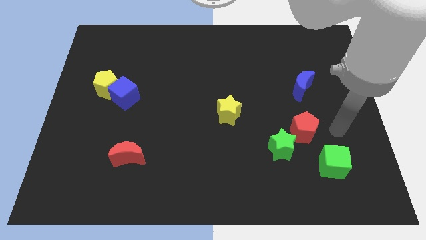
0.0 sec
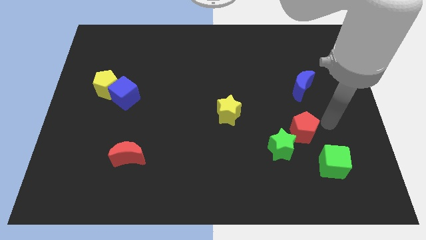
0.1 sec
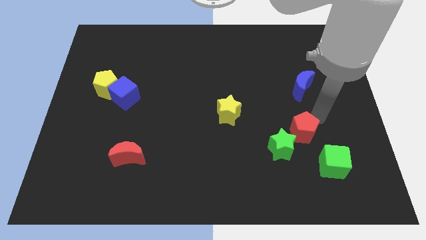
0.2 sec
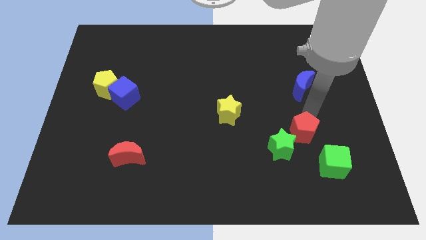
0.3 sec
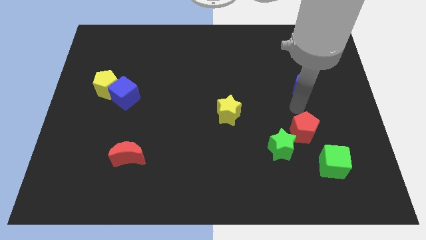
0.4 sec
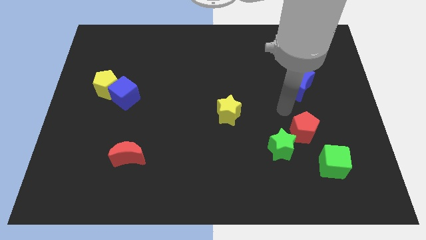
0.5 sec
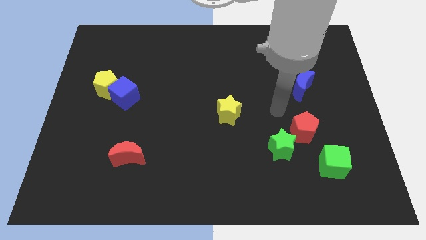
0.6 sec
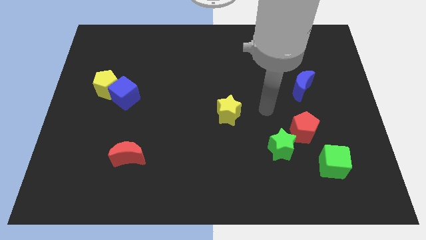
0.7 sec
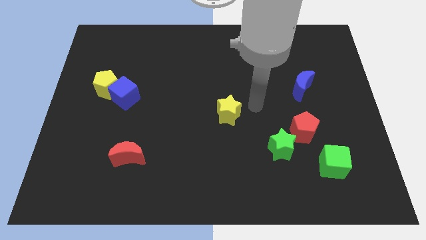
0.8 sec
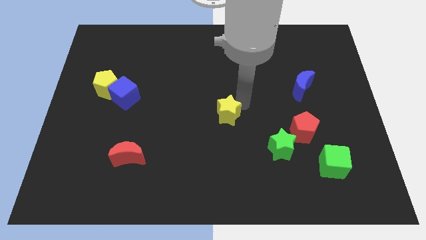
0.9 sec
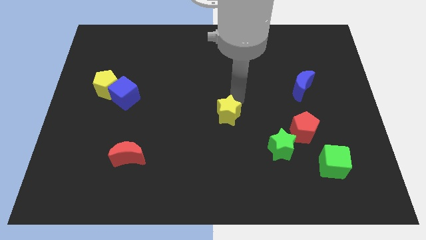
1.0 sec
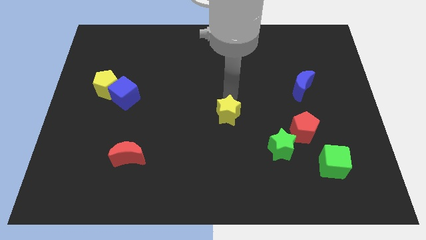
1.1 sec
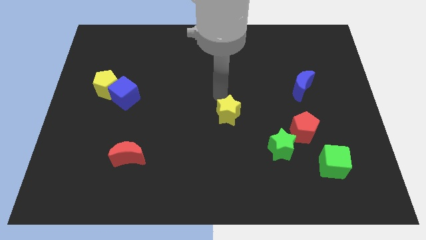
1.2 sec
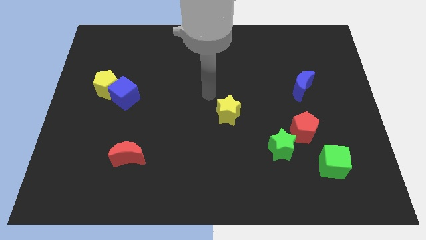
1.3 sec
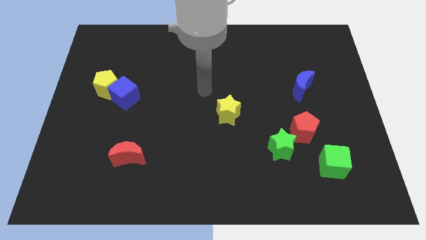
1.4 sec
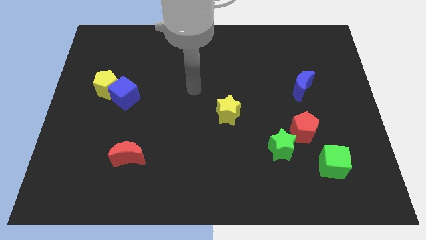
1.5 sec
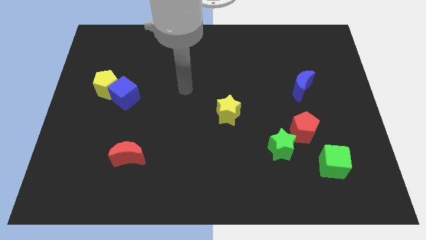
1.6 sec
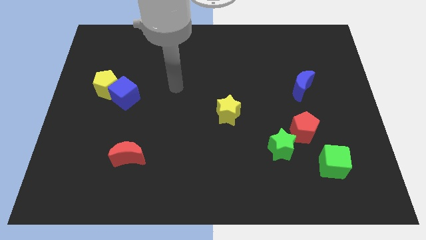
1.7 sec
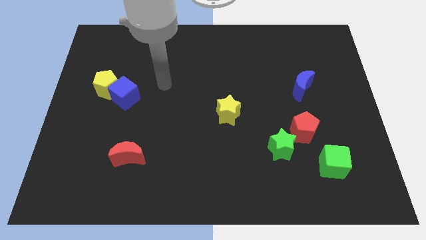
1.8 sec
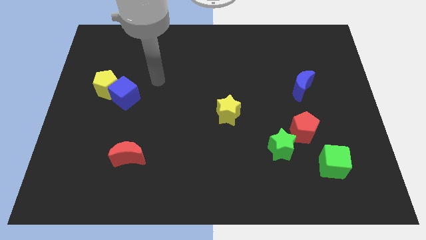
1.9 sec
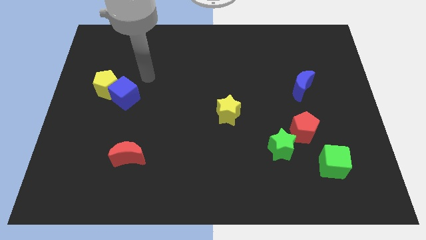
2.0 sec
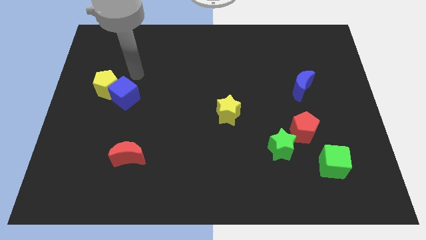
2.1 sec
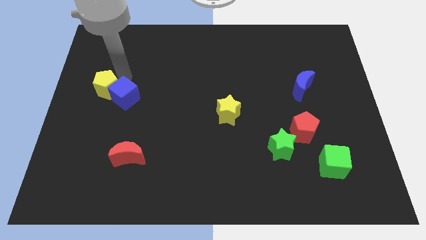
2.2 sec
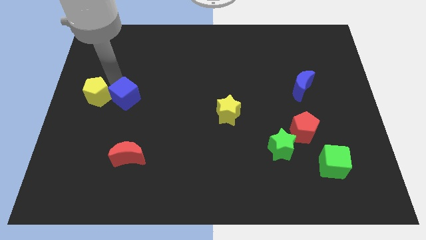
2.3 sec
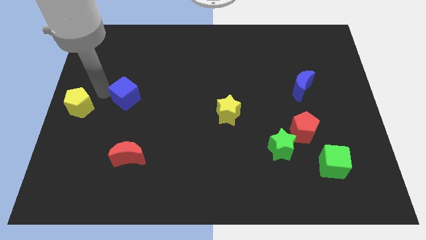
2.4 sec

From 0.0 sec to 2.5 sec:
separate the blue cube from the yellow pentagon

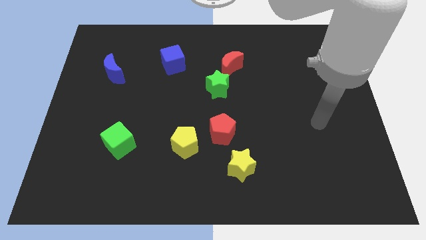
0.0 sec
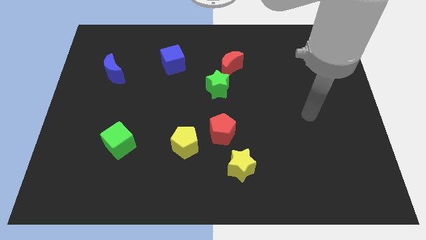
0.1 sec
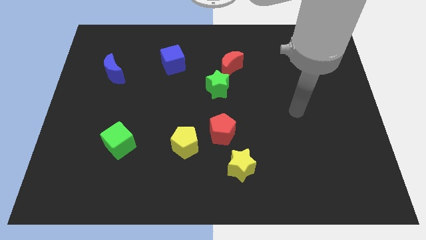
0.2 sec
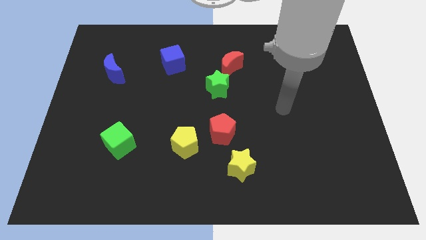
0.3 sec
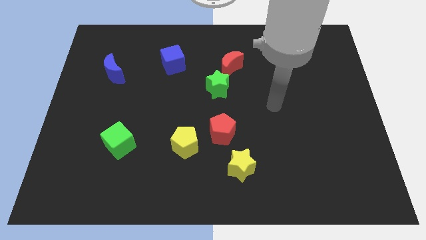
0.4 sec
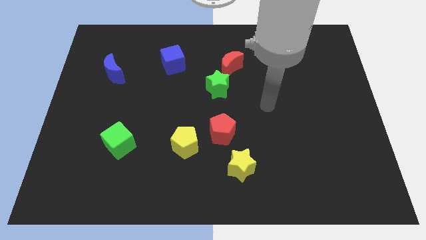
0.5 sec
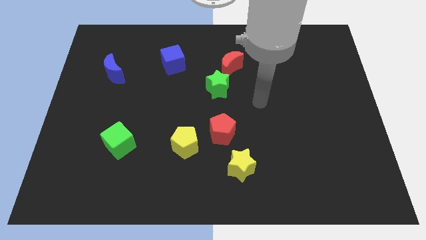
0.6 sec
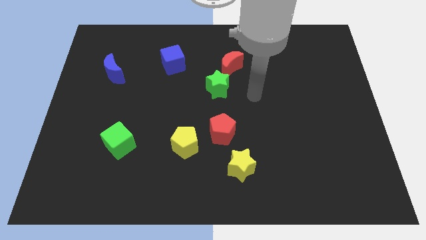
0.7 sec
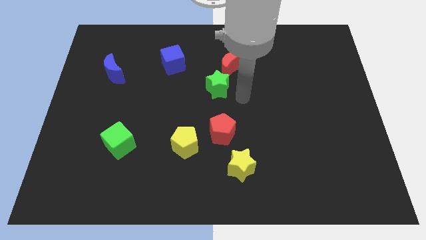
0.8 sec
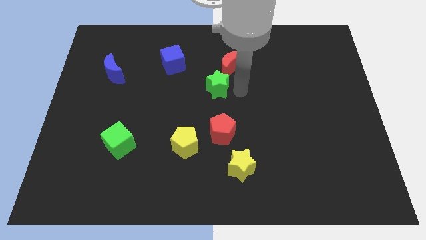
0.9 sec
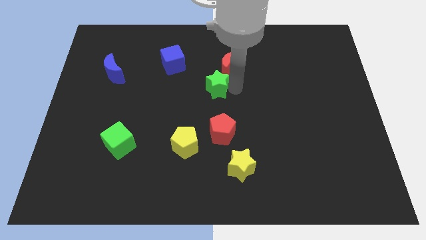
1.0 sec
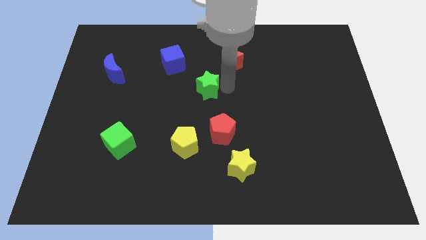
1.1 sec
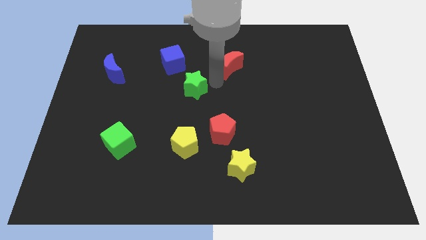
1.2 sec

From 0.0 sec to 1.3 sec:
pull the red moon apart from the green star

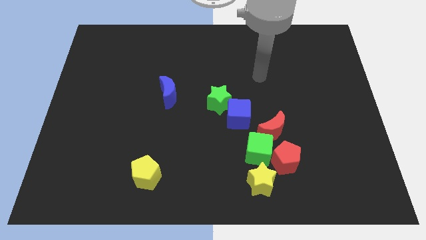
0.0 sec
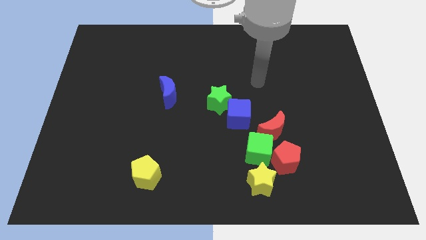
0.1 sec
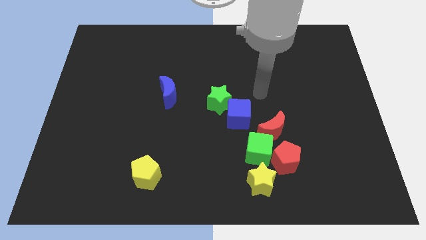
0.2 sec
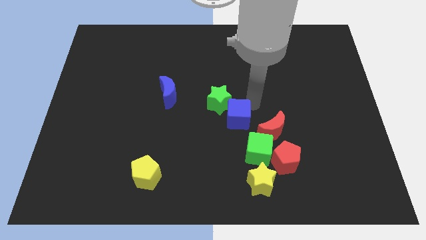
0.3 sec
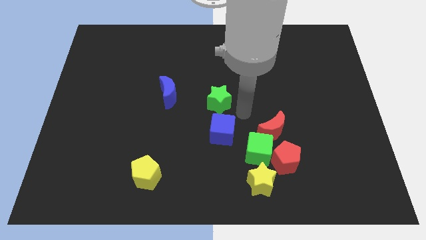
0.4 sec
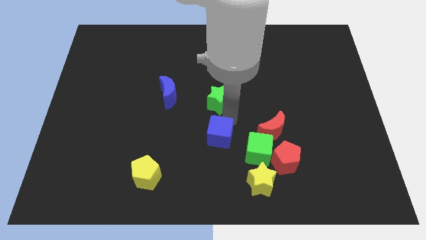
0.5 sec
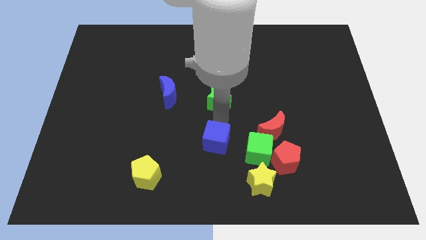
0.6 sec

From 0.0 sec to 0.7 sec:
pull the green star apart from the blue cube

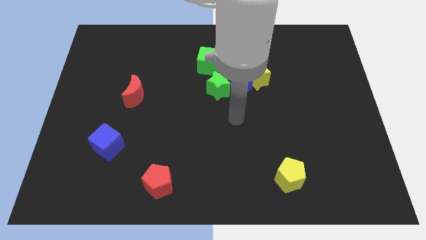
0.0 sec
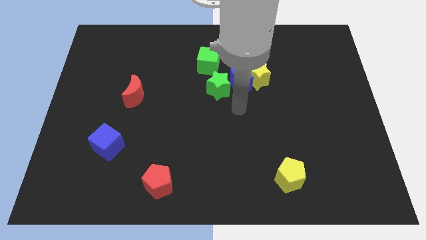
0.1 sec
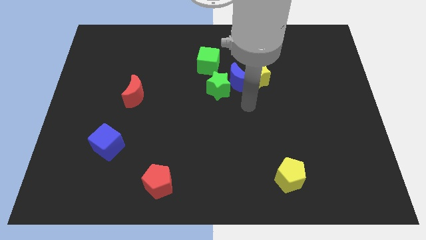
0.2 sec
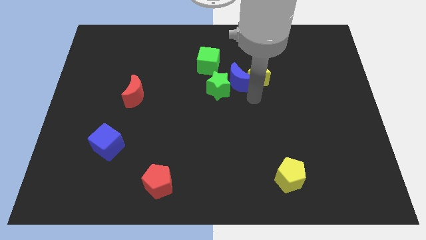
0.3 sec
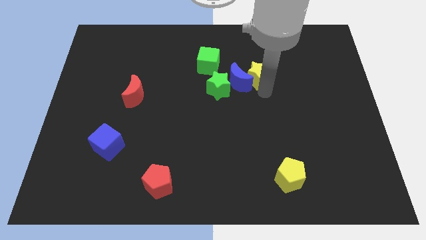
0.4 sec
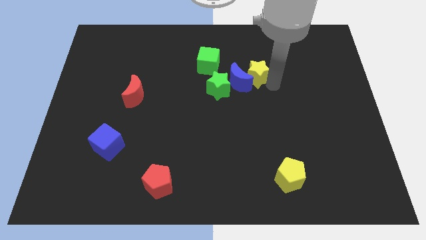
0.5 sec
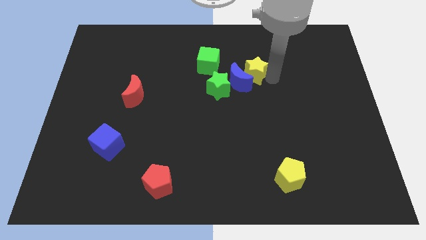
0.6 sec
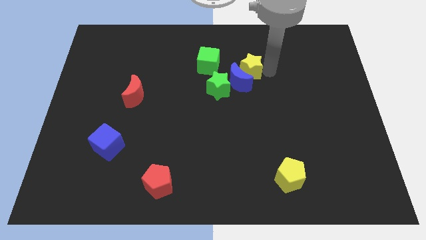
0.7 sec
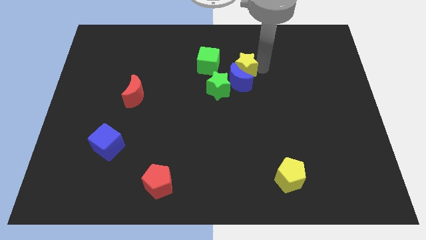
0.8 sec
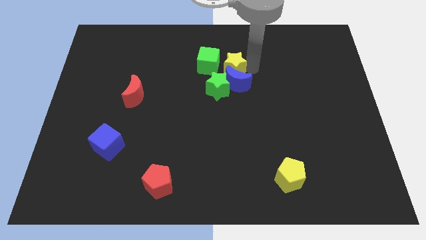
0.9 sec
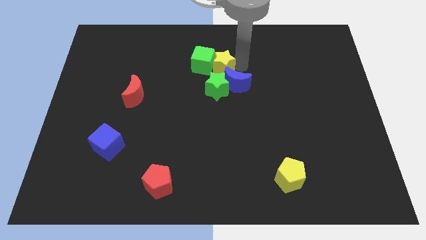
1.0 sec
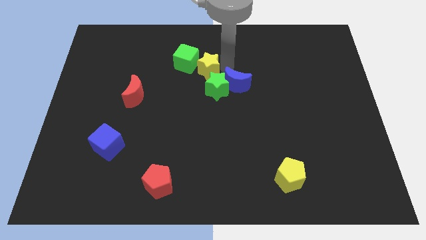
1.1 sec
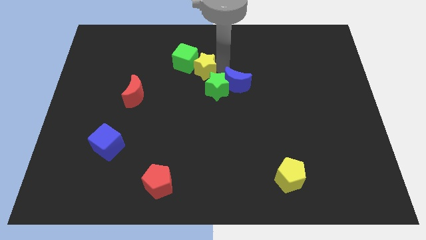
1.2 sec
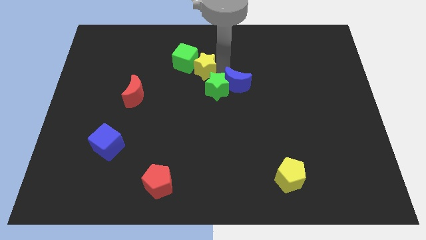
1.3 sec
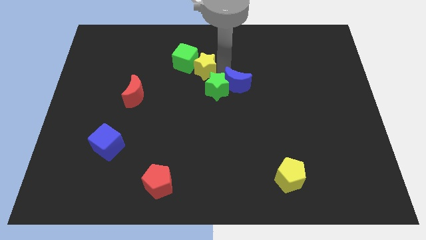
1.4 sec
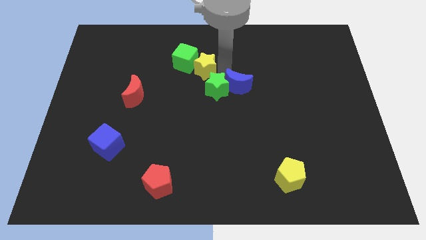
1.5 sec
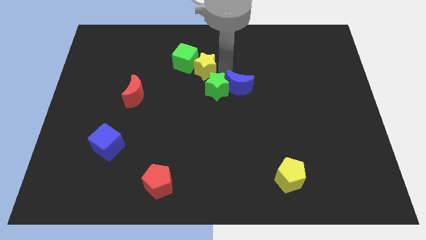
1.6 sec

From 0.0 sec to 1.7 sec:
move the blue moon away from the group of blocks

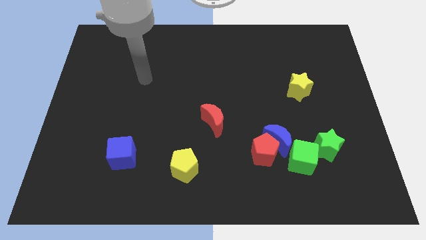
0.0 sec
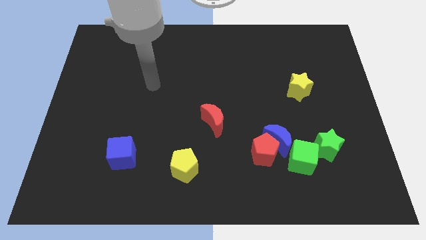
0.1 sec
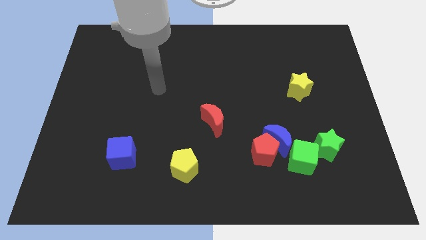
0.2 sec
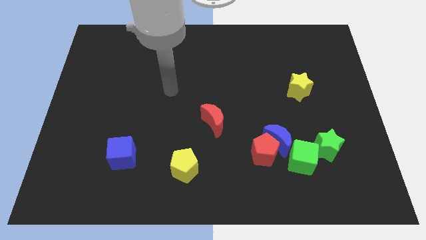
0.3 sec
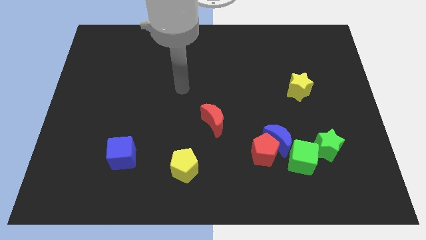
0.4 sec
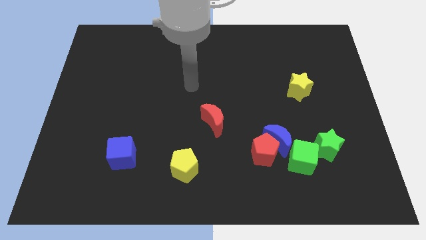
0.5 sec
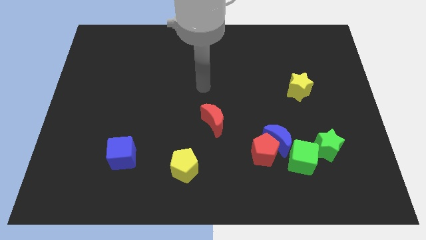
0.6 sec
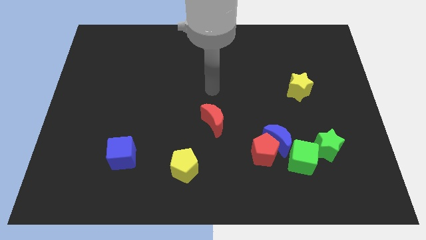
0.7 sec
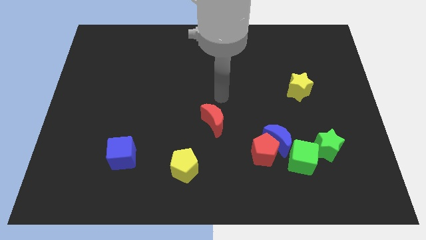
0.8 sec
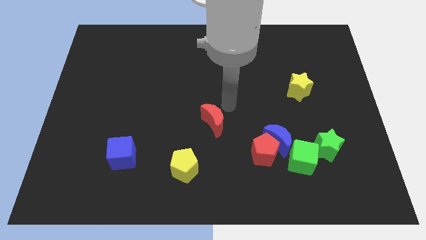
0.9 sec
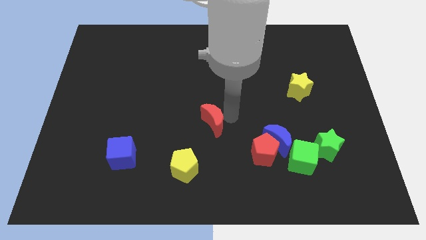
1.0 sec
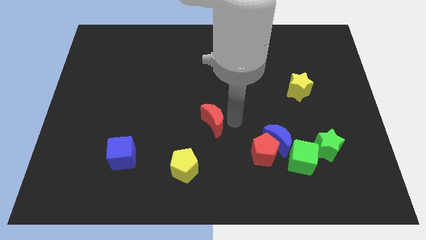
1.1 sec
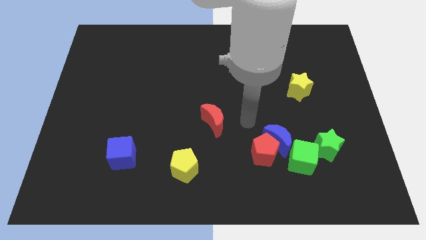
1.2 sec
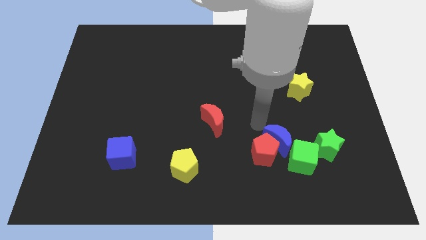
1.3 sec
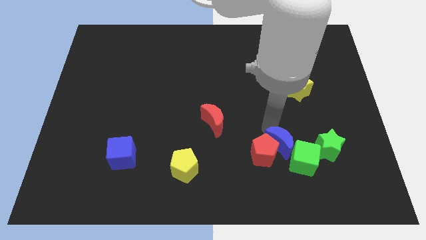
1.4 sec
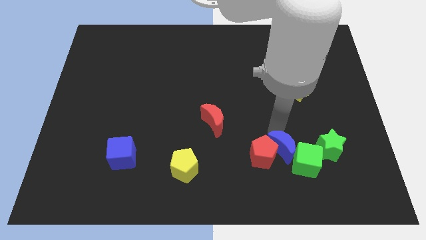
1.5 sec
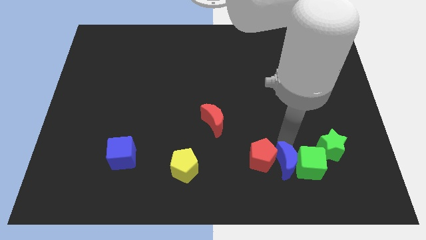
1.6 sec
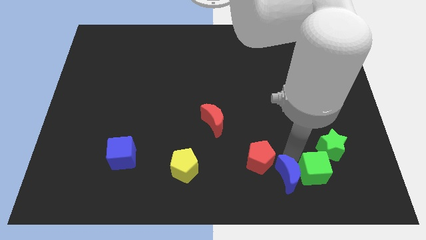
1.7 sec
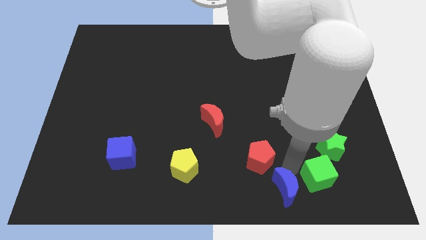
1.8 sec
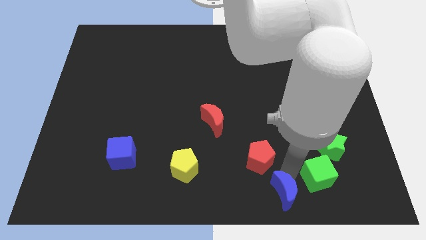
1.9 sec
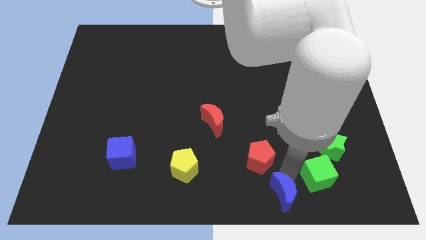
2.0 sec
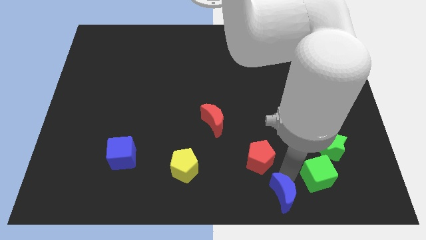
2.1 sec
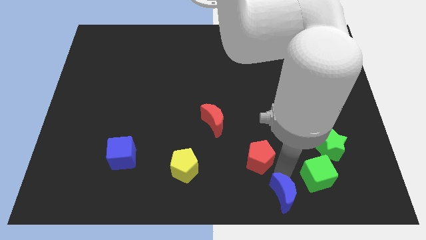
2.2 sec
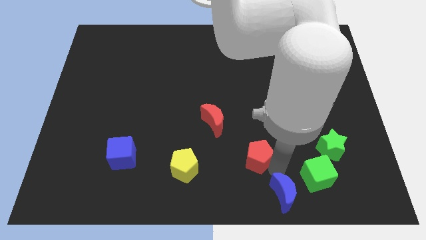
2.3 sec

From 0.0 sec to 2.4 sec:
pull the red pentagon apart from the blue moon and green cube

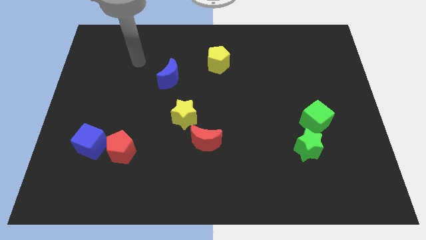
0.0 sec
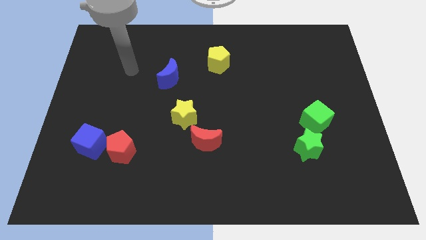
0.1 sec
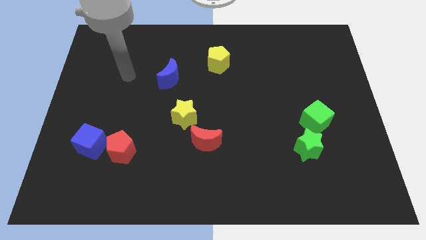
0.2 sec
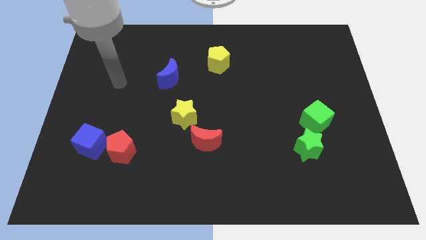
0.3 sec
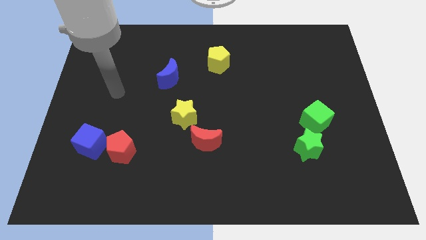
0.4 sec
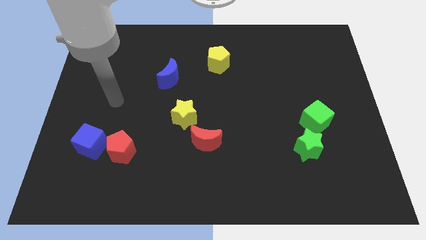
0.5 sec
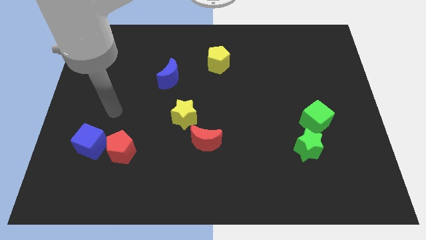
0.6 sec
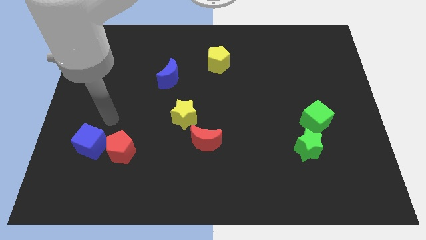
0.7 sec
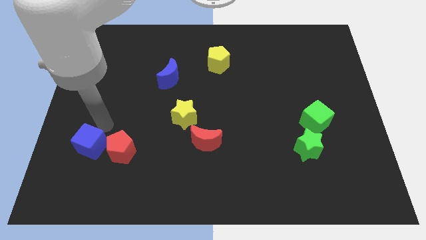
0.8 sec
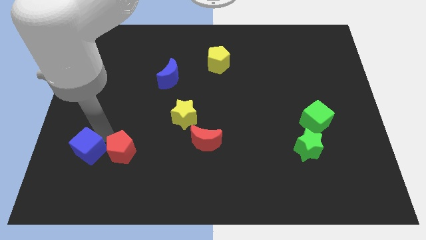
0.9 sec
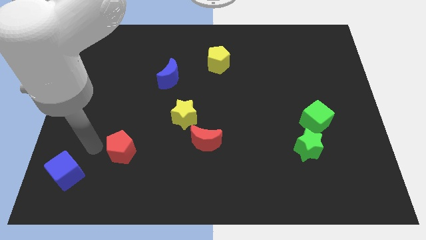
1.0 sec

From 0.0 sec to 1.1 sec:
separate the red pentagon from the blue cube
